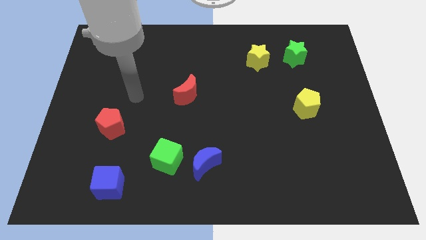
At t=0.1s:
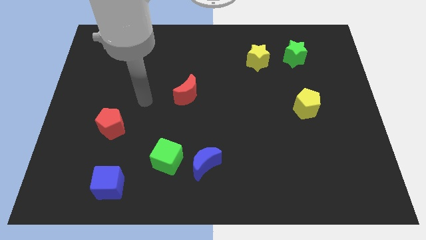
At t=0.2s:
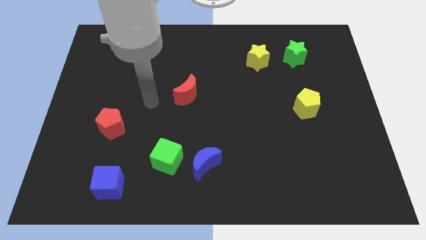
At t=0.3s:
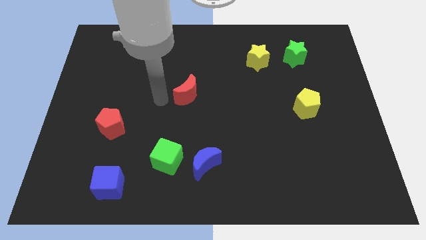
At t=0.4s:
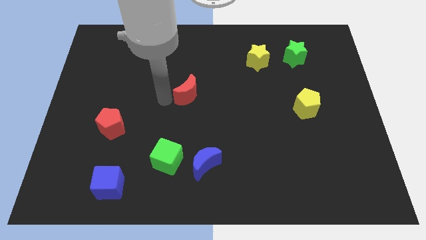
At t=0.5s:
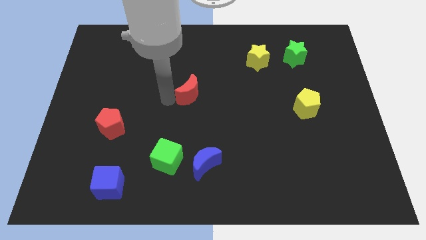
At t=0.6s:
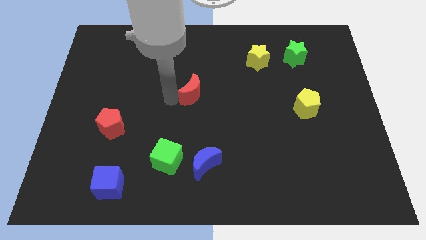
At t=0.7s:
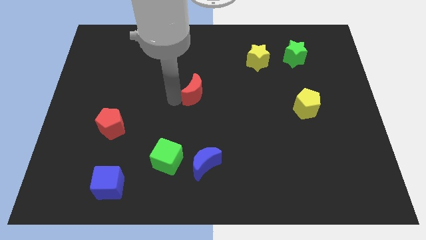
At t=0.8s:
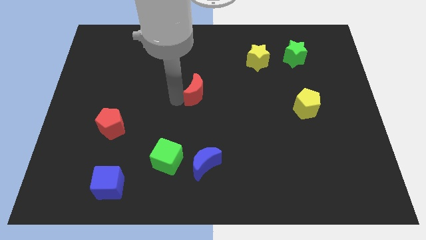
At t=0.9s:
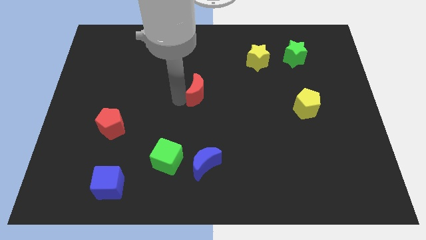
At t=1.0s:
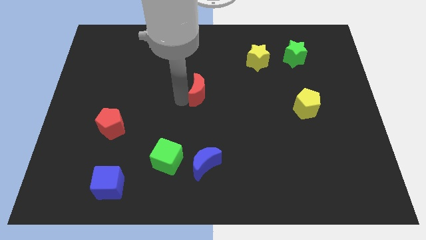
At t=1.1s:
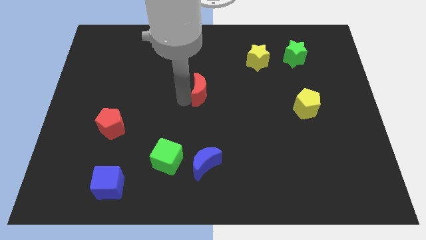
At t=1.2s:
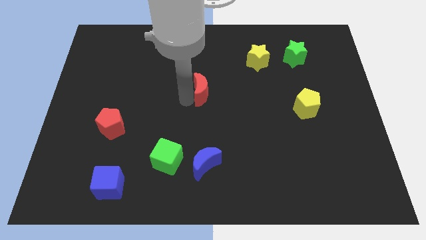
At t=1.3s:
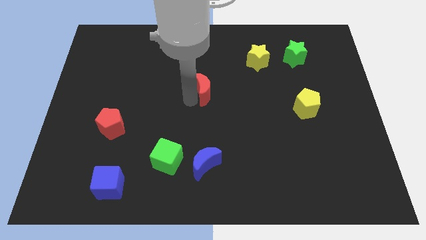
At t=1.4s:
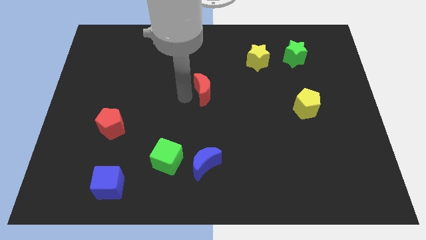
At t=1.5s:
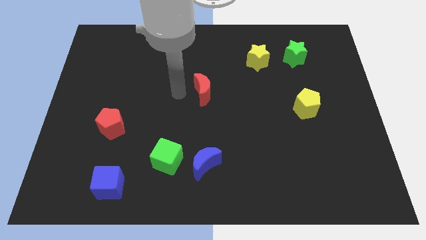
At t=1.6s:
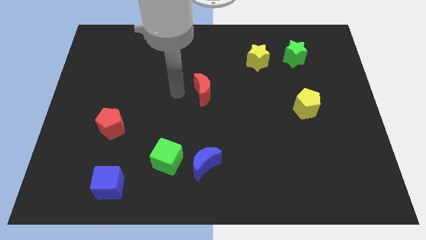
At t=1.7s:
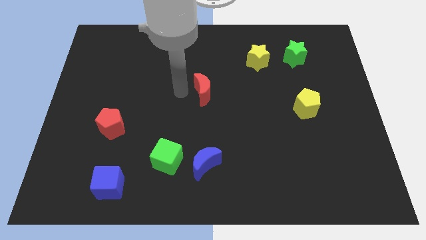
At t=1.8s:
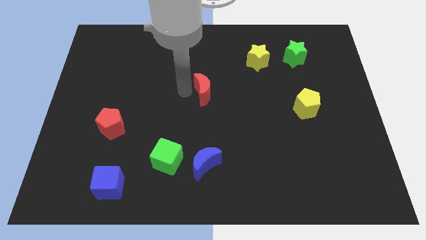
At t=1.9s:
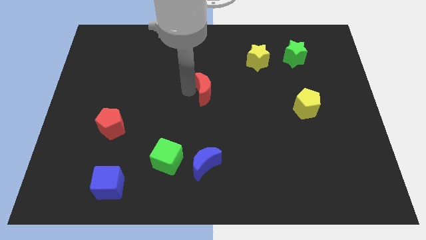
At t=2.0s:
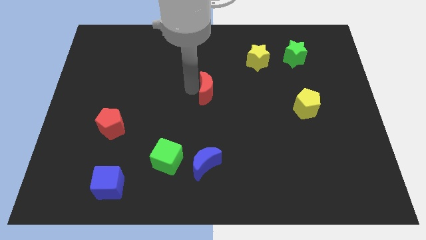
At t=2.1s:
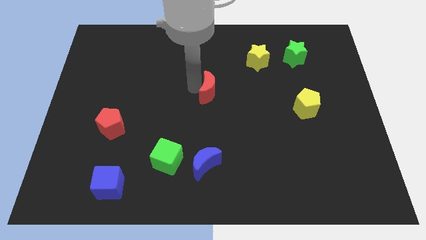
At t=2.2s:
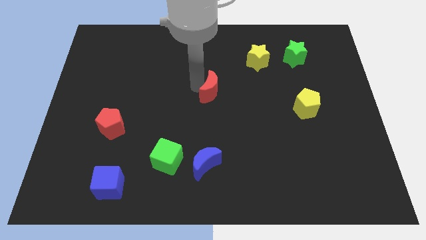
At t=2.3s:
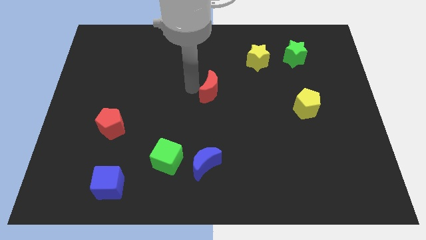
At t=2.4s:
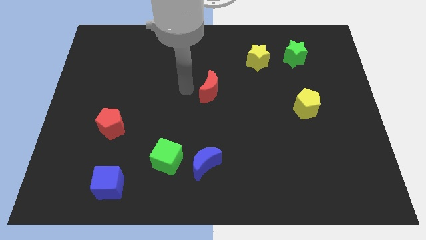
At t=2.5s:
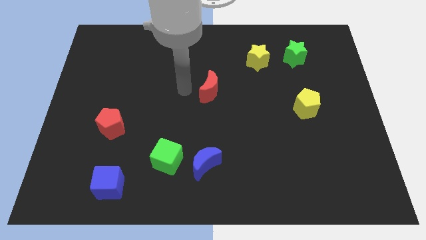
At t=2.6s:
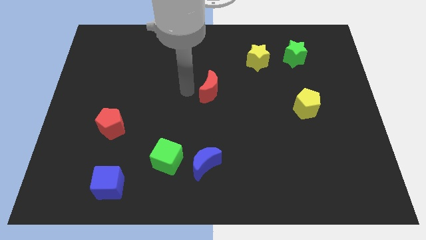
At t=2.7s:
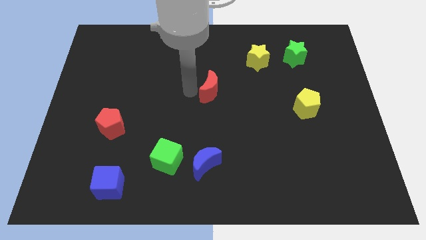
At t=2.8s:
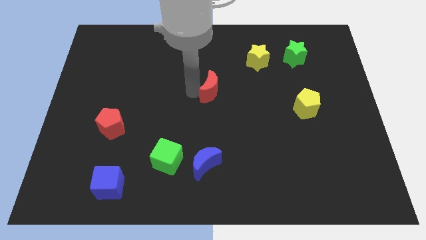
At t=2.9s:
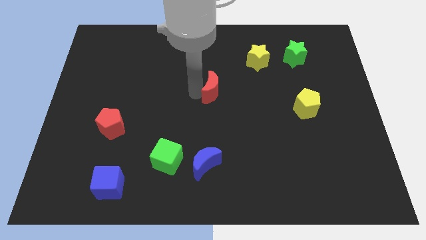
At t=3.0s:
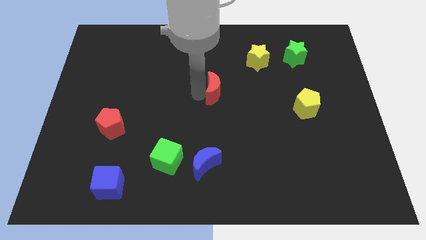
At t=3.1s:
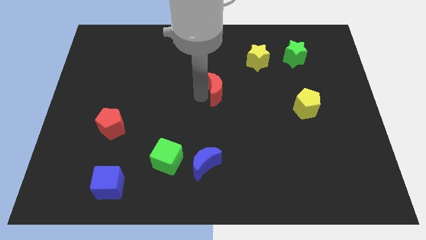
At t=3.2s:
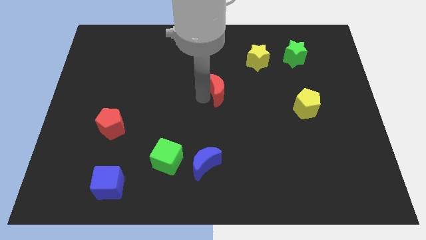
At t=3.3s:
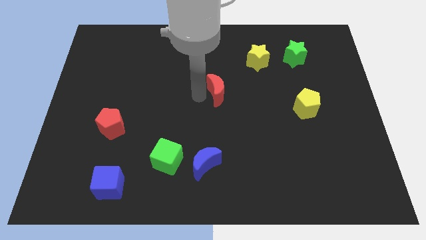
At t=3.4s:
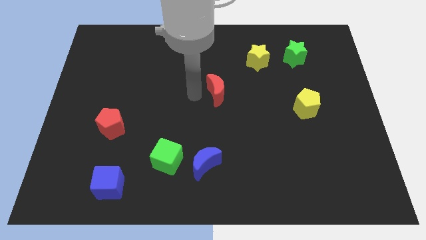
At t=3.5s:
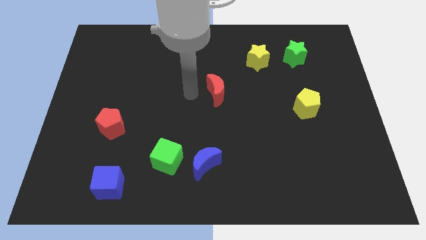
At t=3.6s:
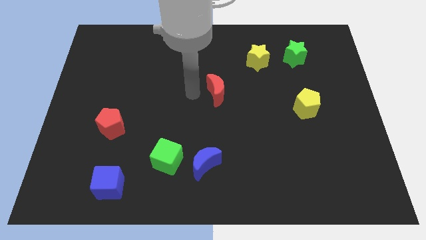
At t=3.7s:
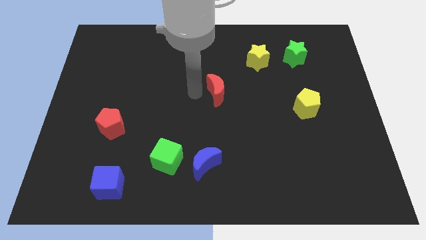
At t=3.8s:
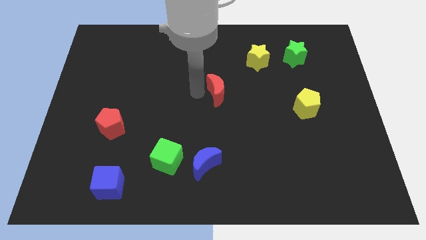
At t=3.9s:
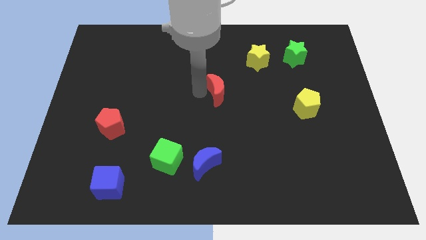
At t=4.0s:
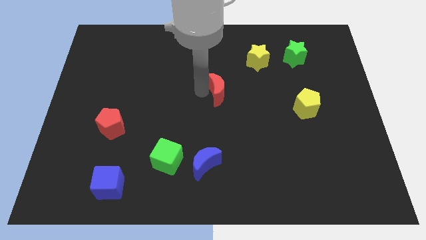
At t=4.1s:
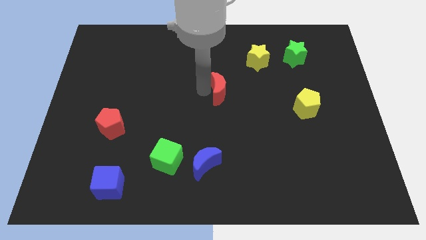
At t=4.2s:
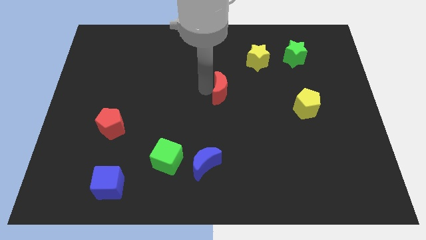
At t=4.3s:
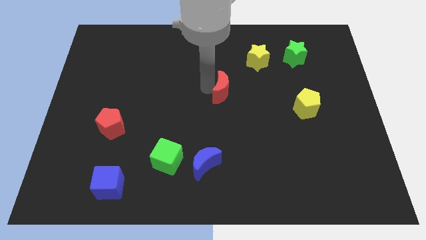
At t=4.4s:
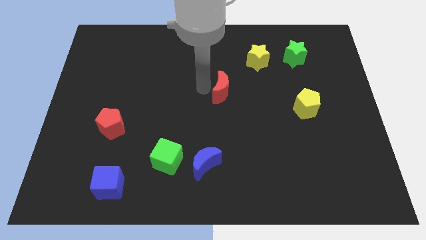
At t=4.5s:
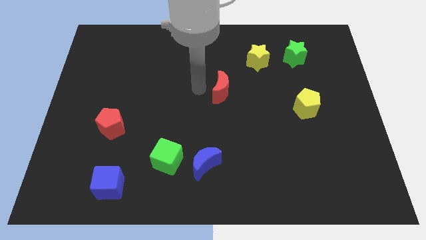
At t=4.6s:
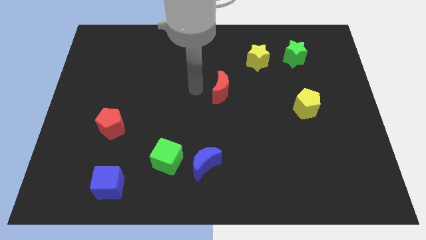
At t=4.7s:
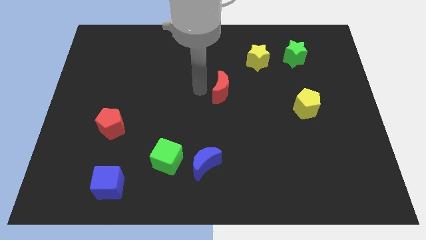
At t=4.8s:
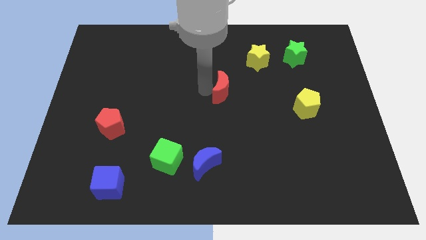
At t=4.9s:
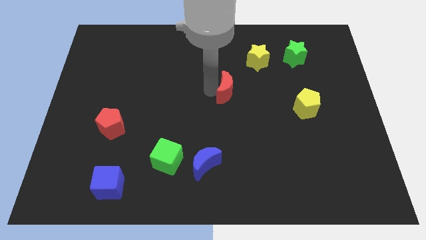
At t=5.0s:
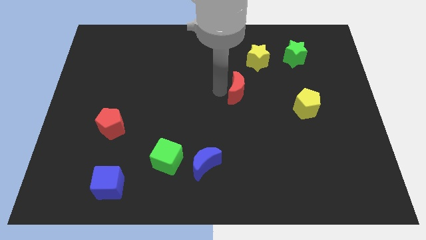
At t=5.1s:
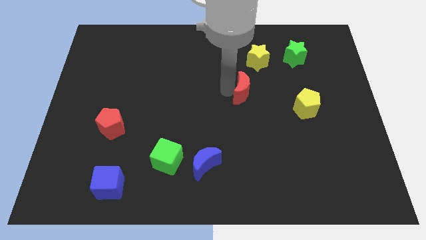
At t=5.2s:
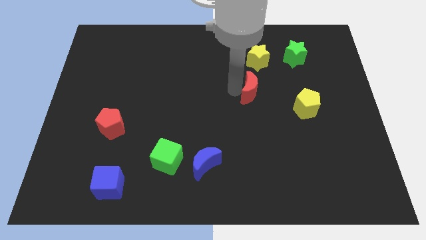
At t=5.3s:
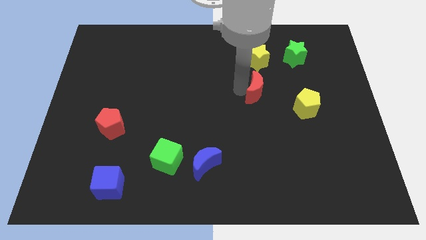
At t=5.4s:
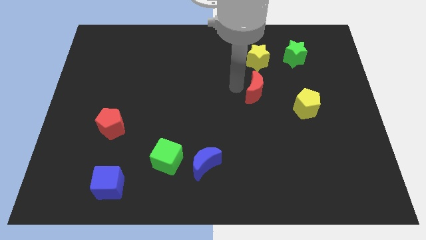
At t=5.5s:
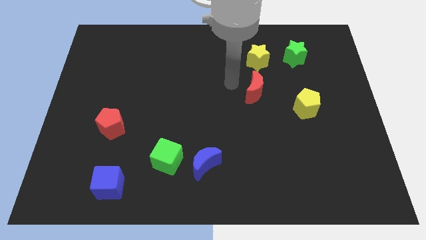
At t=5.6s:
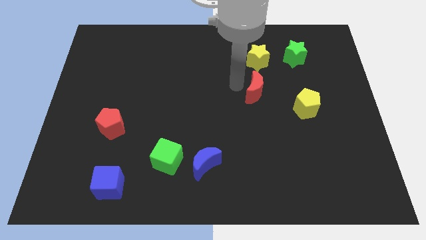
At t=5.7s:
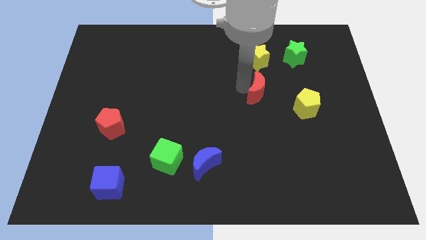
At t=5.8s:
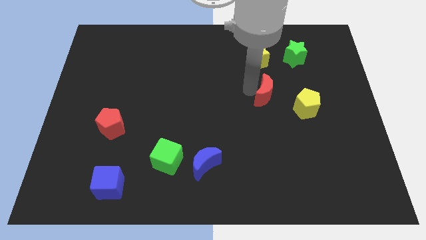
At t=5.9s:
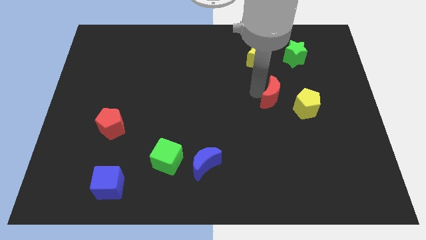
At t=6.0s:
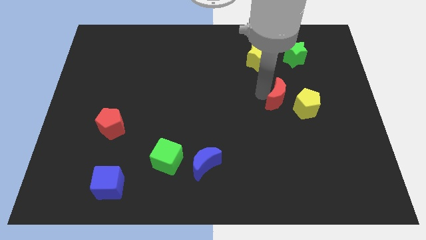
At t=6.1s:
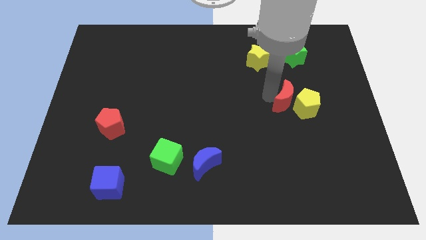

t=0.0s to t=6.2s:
slide the red moon to the yellow pentagon

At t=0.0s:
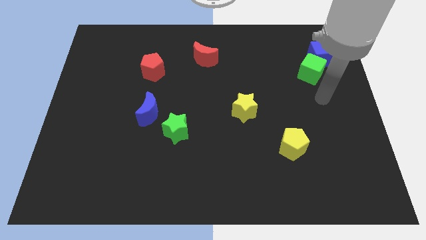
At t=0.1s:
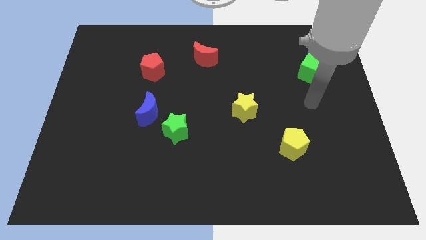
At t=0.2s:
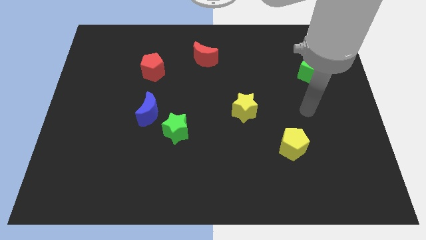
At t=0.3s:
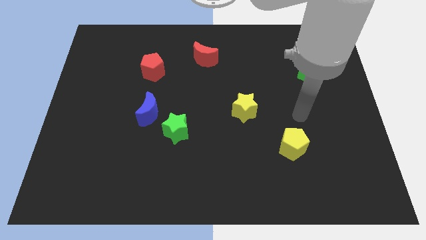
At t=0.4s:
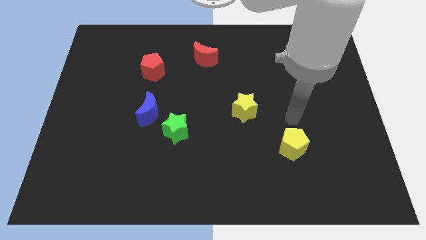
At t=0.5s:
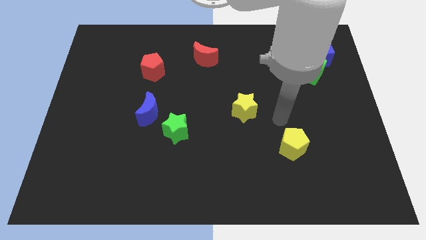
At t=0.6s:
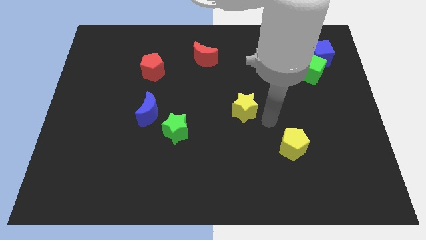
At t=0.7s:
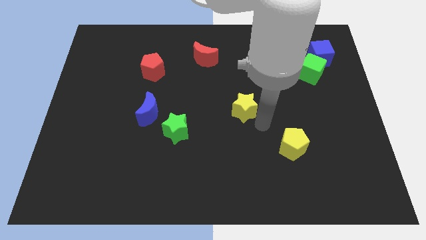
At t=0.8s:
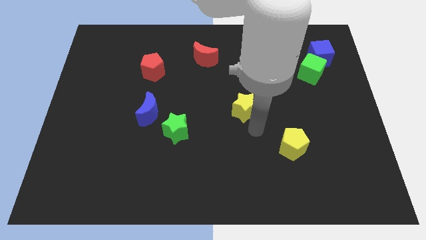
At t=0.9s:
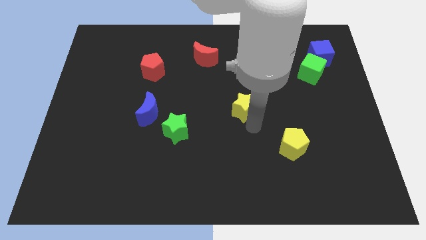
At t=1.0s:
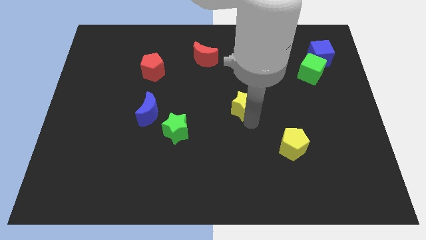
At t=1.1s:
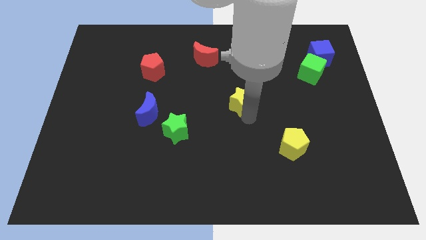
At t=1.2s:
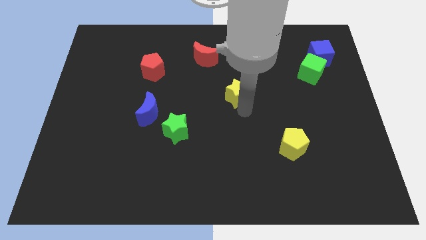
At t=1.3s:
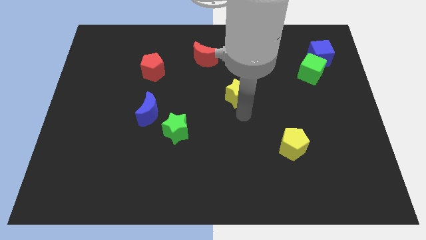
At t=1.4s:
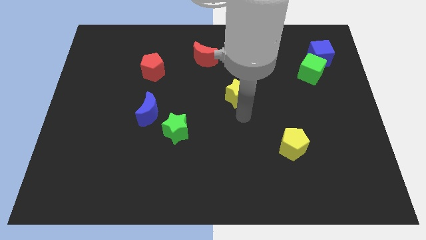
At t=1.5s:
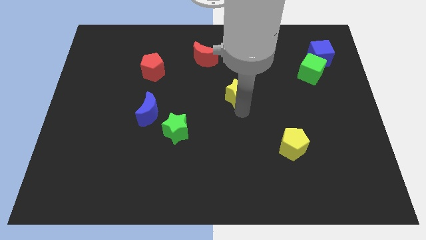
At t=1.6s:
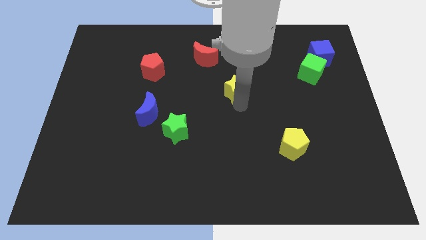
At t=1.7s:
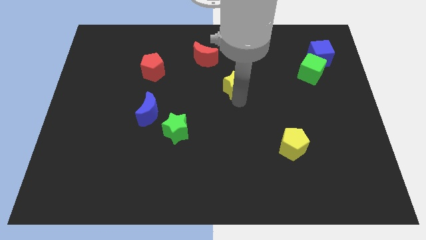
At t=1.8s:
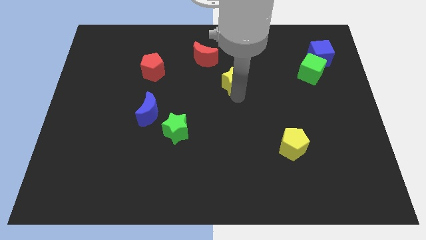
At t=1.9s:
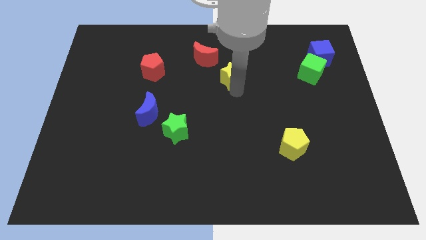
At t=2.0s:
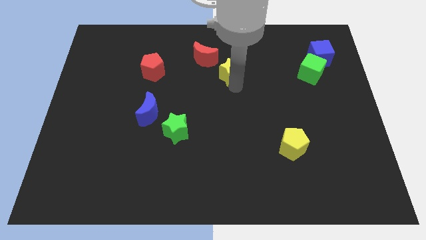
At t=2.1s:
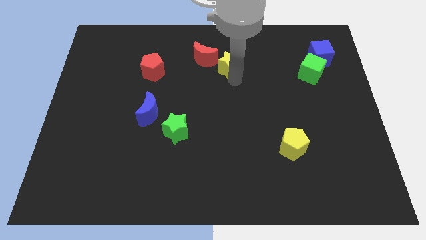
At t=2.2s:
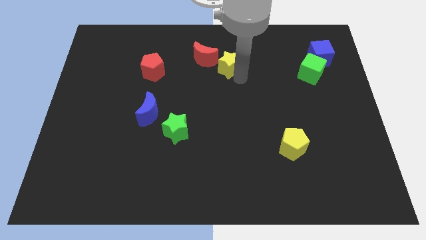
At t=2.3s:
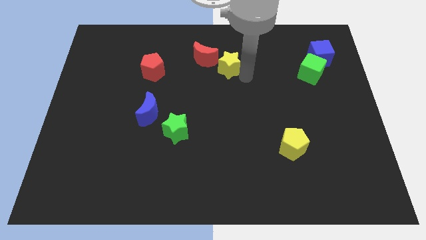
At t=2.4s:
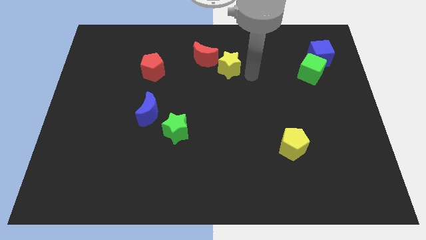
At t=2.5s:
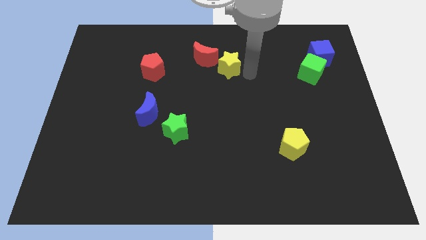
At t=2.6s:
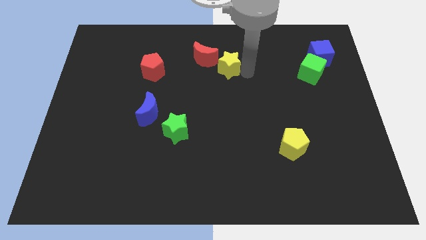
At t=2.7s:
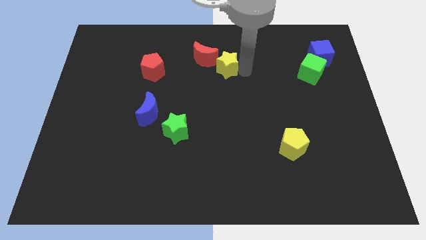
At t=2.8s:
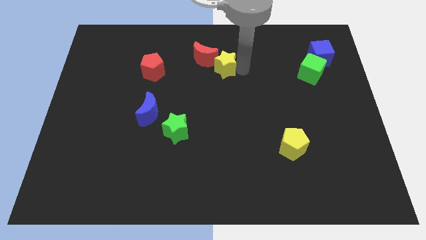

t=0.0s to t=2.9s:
move the yellow star to the red moon
